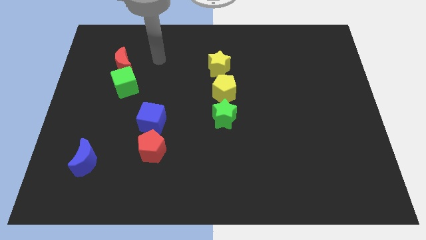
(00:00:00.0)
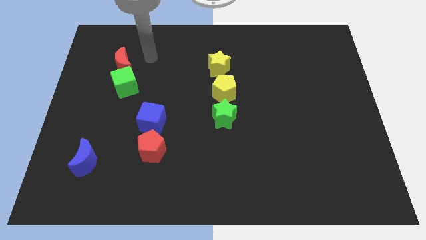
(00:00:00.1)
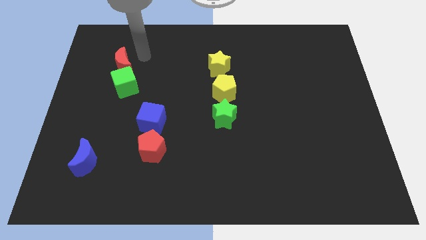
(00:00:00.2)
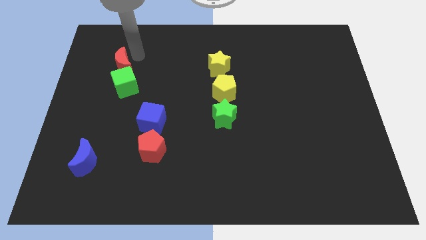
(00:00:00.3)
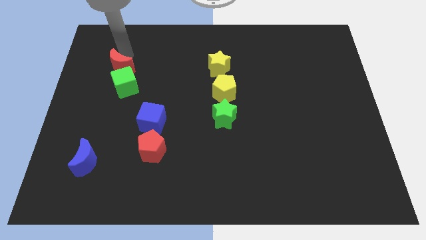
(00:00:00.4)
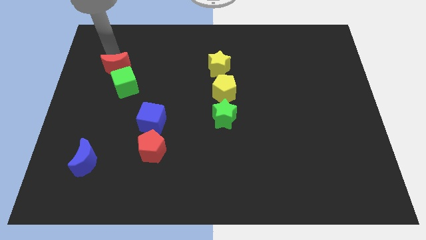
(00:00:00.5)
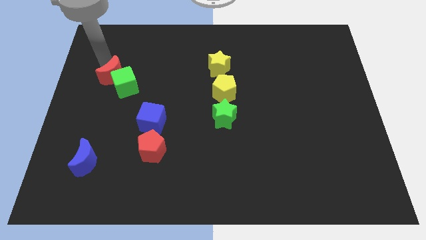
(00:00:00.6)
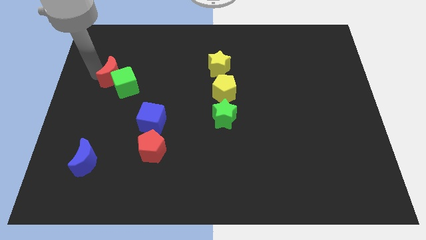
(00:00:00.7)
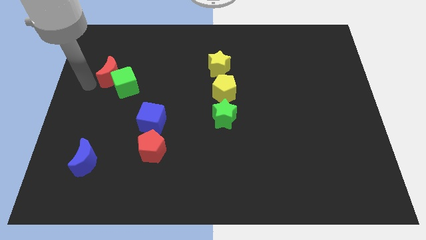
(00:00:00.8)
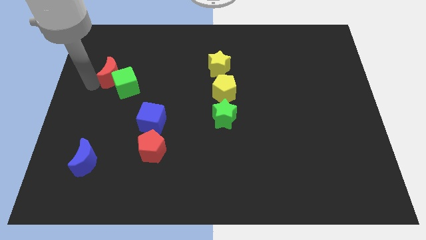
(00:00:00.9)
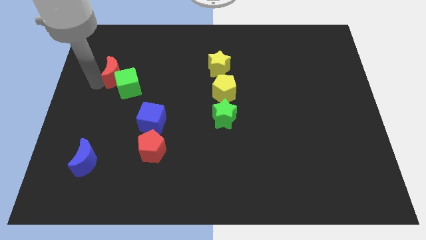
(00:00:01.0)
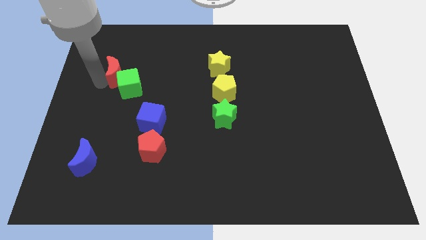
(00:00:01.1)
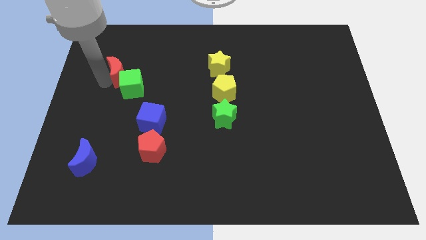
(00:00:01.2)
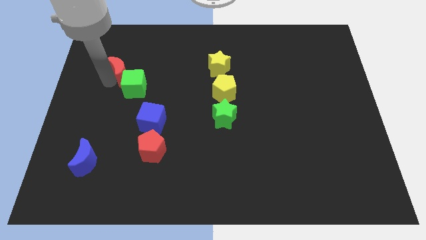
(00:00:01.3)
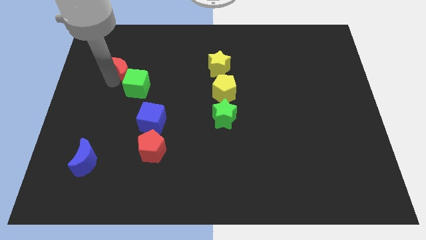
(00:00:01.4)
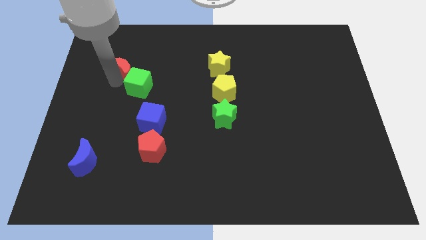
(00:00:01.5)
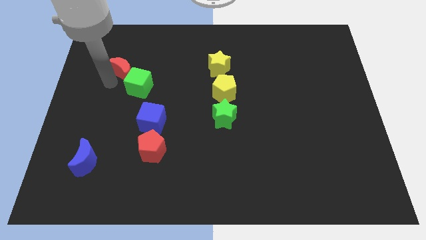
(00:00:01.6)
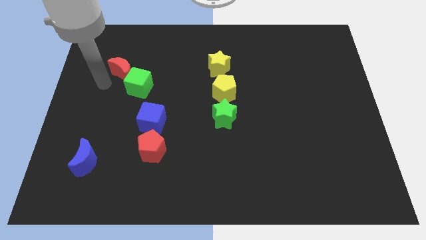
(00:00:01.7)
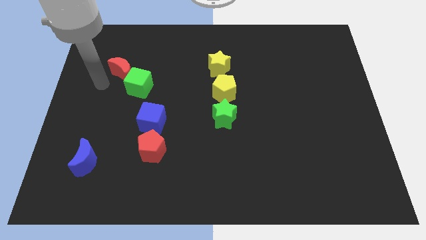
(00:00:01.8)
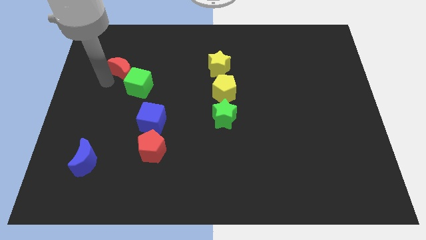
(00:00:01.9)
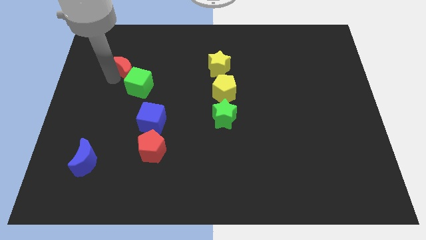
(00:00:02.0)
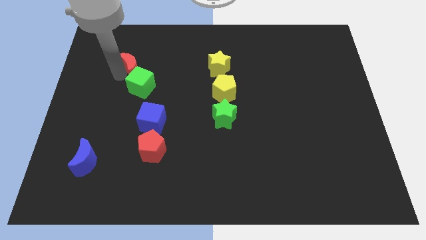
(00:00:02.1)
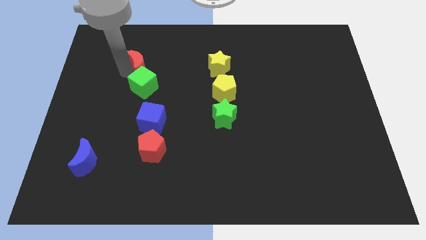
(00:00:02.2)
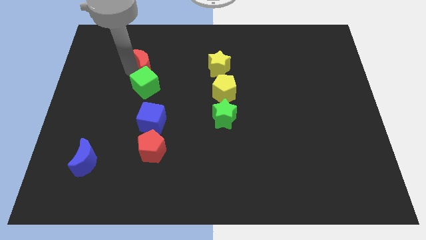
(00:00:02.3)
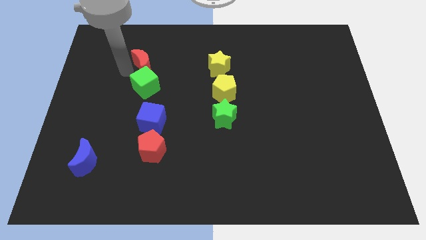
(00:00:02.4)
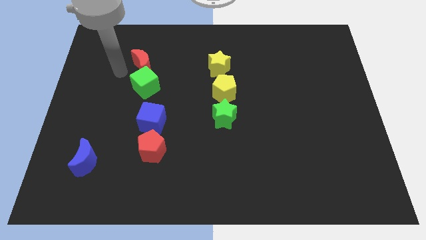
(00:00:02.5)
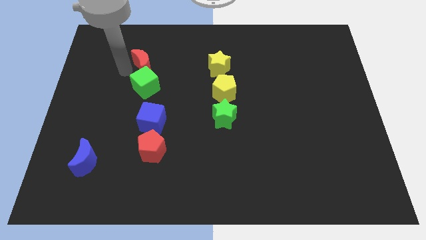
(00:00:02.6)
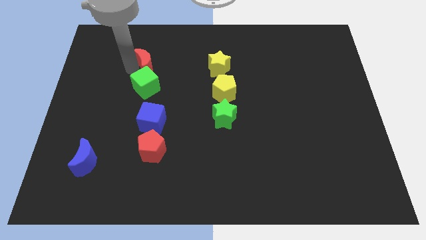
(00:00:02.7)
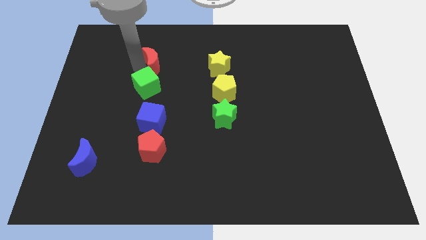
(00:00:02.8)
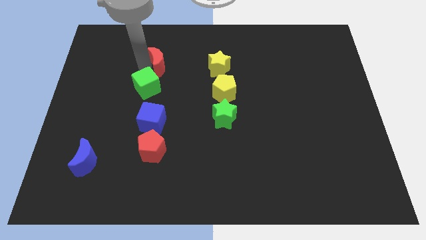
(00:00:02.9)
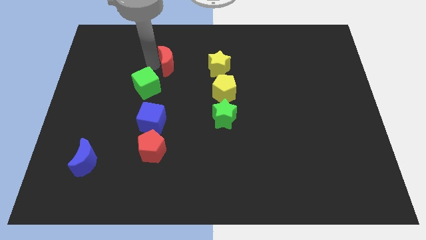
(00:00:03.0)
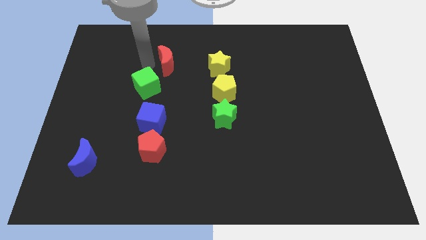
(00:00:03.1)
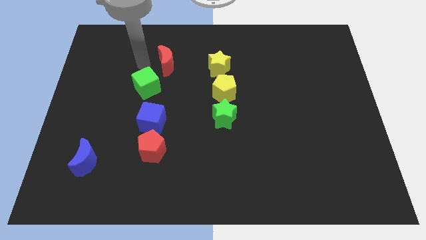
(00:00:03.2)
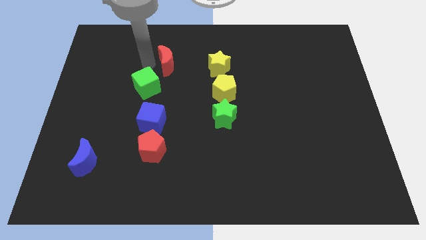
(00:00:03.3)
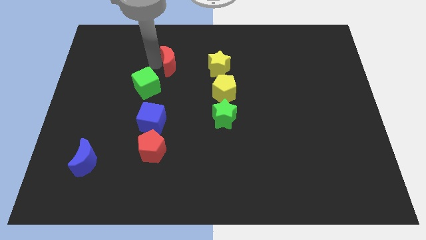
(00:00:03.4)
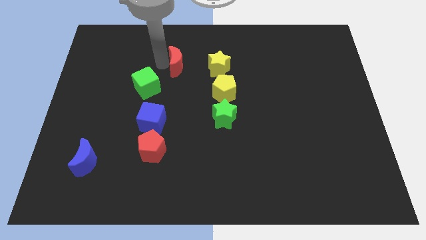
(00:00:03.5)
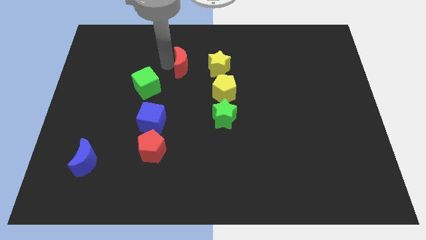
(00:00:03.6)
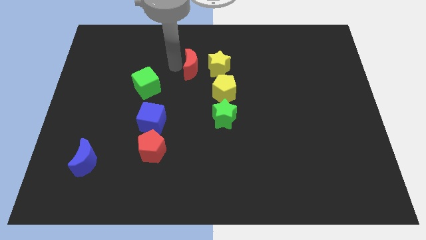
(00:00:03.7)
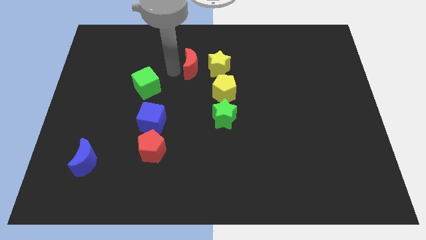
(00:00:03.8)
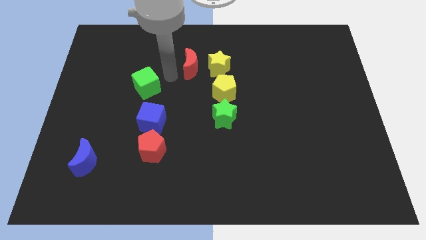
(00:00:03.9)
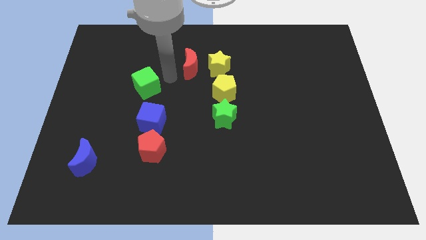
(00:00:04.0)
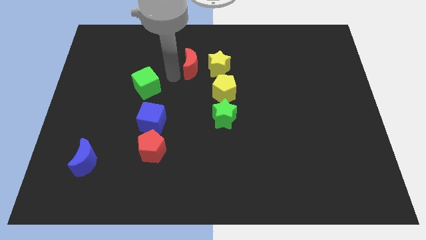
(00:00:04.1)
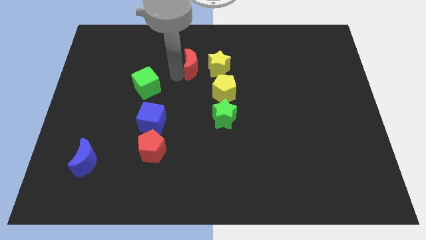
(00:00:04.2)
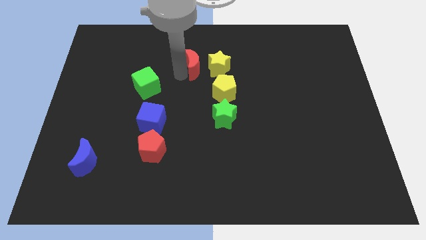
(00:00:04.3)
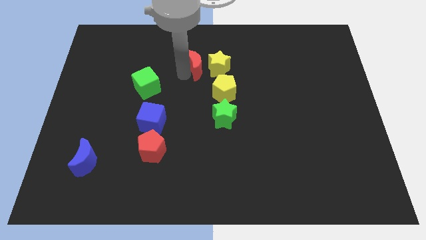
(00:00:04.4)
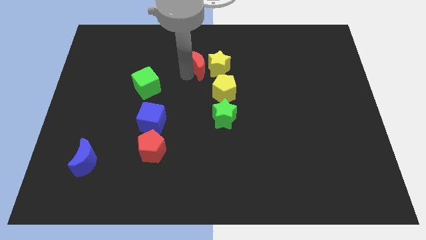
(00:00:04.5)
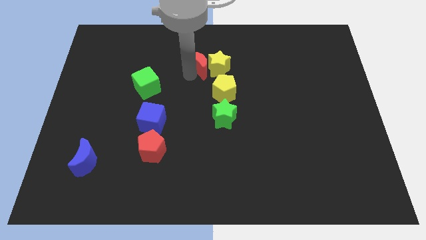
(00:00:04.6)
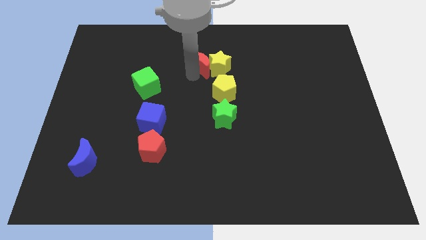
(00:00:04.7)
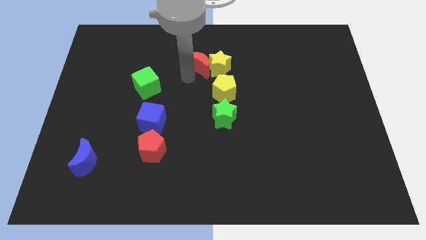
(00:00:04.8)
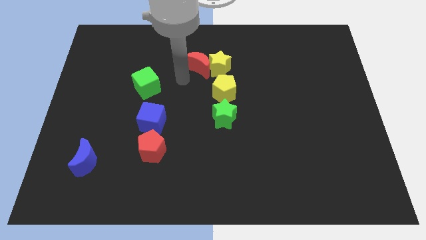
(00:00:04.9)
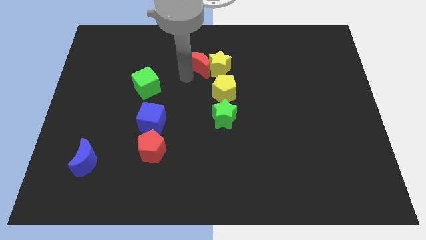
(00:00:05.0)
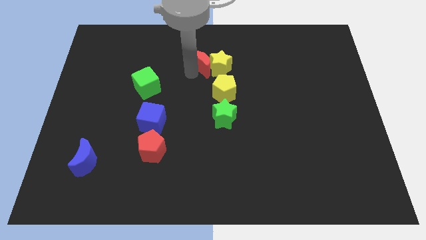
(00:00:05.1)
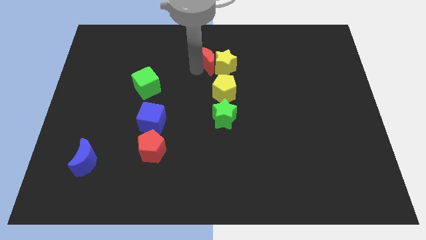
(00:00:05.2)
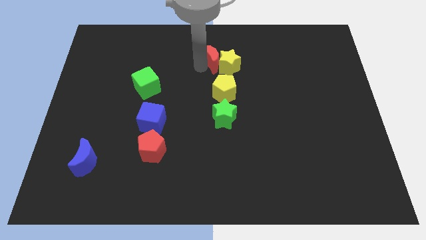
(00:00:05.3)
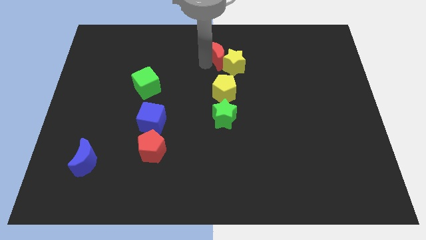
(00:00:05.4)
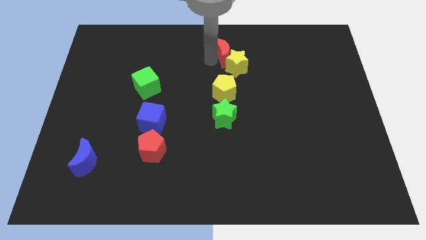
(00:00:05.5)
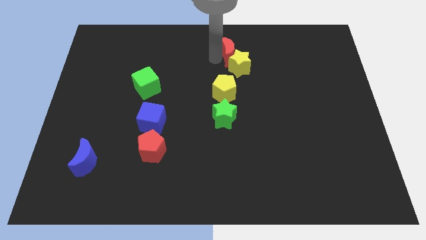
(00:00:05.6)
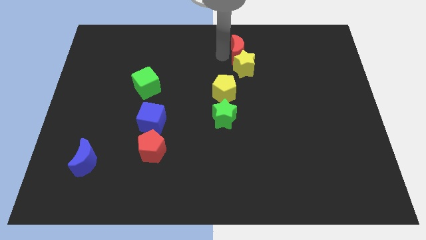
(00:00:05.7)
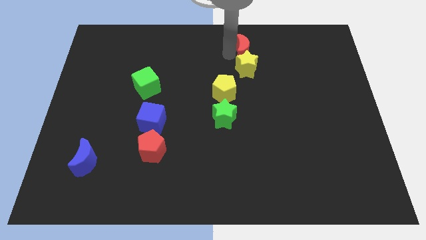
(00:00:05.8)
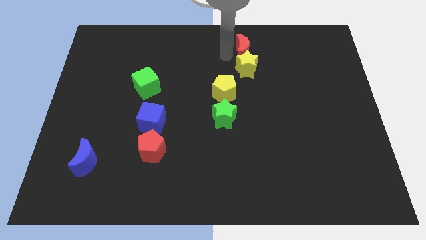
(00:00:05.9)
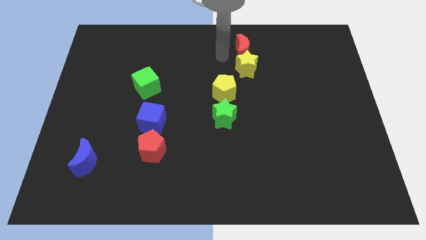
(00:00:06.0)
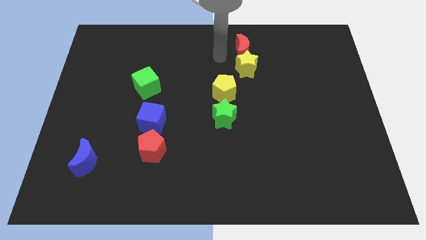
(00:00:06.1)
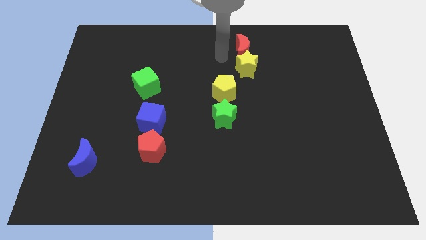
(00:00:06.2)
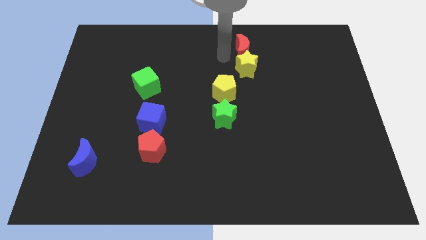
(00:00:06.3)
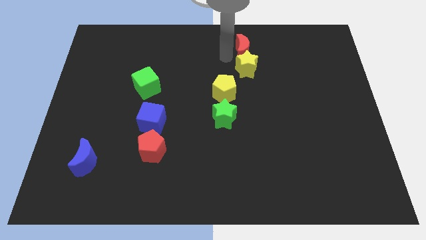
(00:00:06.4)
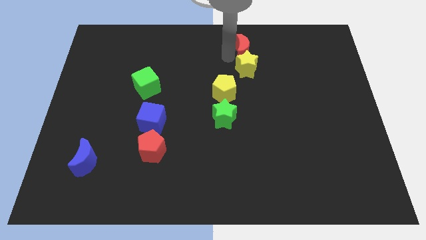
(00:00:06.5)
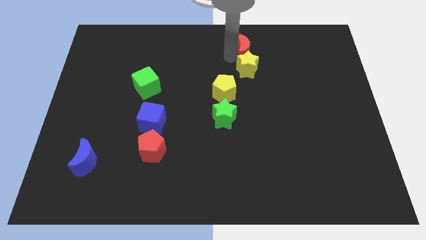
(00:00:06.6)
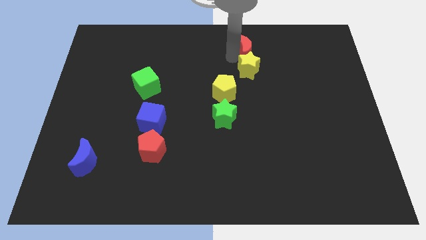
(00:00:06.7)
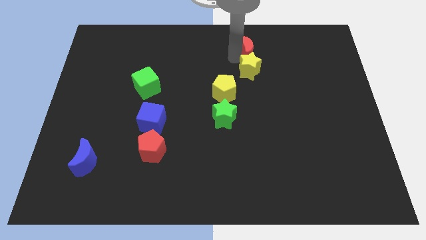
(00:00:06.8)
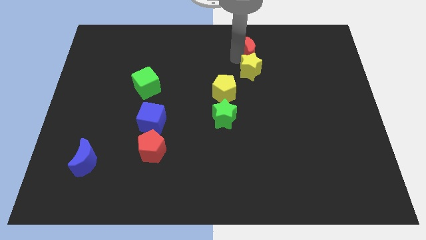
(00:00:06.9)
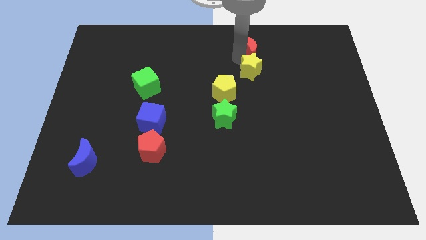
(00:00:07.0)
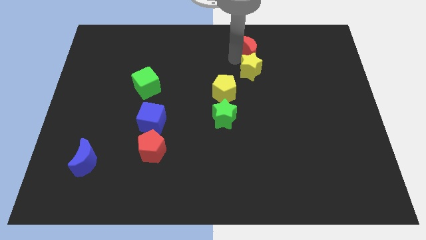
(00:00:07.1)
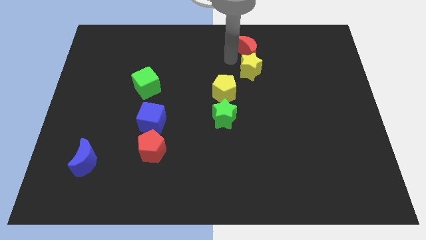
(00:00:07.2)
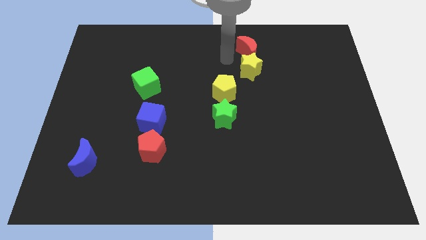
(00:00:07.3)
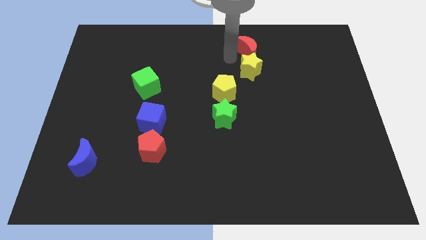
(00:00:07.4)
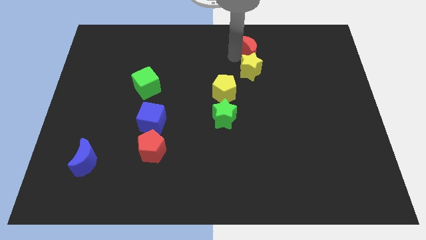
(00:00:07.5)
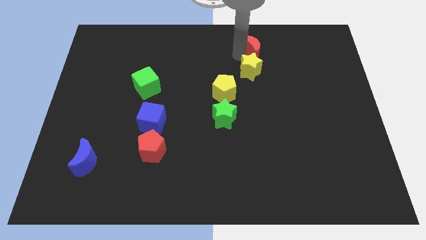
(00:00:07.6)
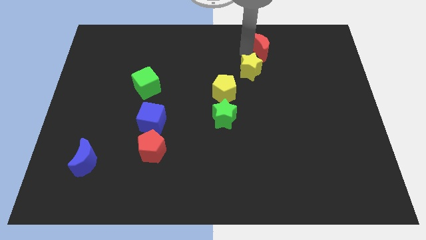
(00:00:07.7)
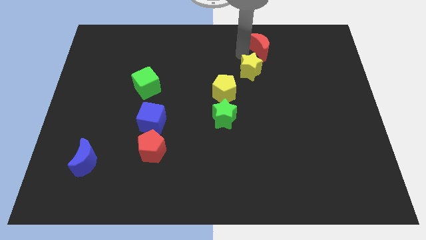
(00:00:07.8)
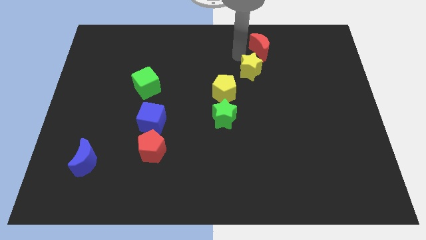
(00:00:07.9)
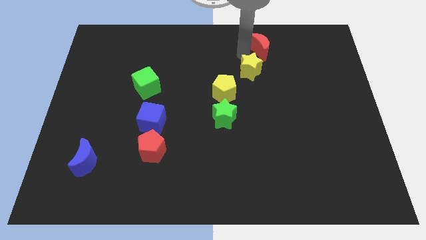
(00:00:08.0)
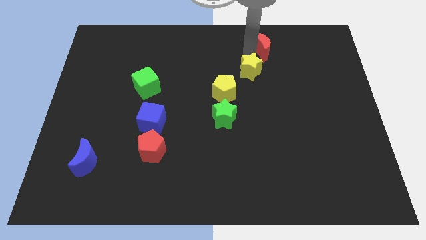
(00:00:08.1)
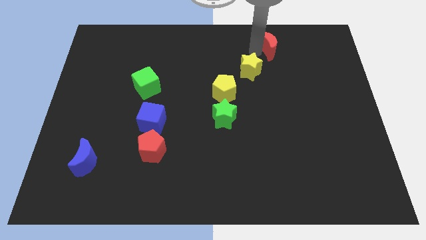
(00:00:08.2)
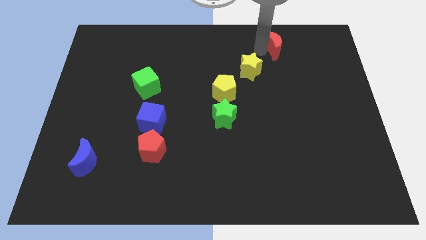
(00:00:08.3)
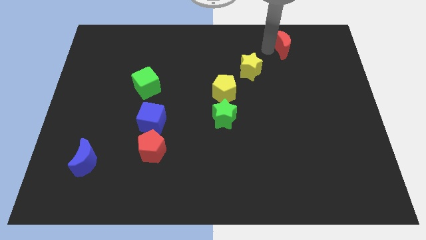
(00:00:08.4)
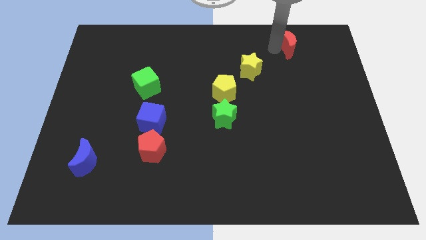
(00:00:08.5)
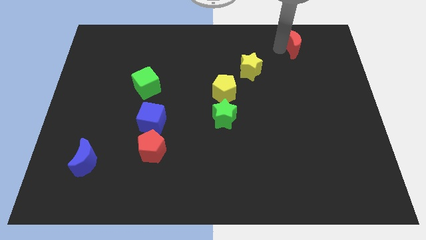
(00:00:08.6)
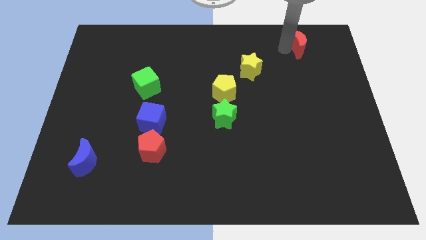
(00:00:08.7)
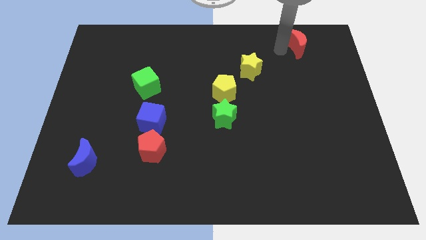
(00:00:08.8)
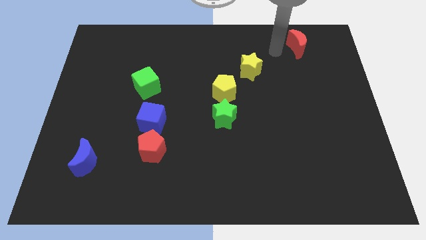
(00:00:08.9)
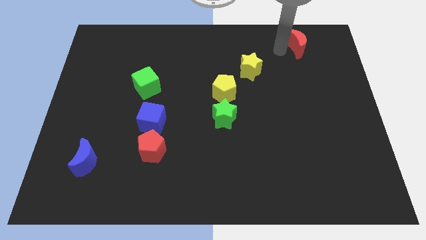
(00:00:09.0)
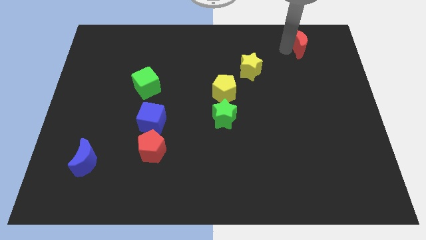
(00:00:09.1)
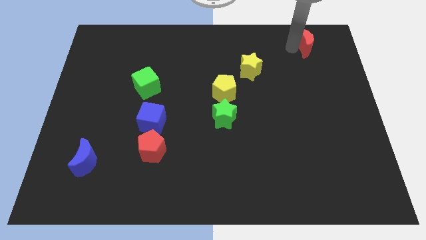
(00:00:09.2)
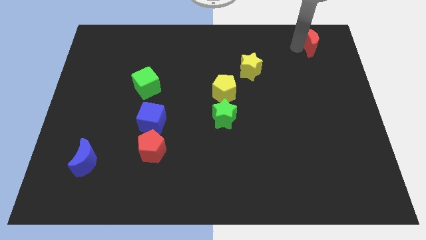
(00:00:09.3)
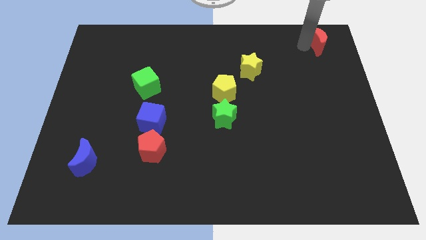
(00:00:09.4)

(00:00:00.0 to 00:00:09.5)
push the red moon to the top right
